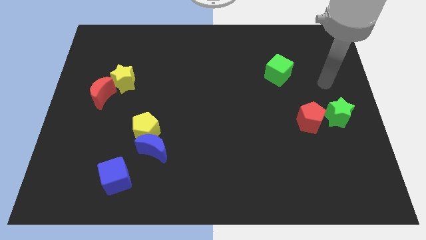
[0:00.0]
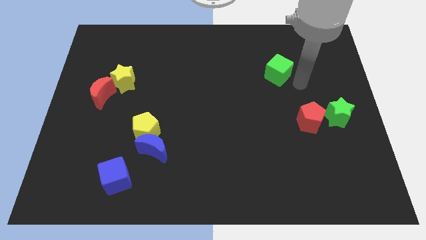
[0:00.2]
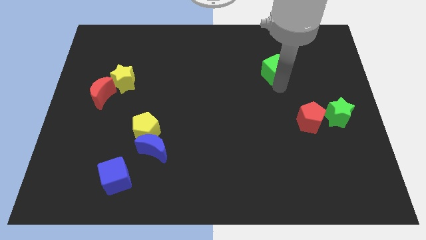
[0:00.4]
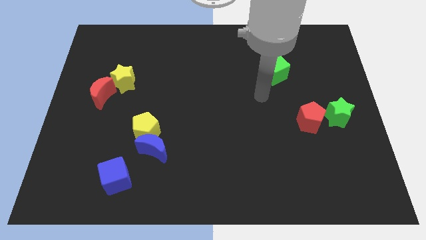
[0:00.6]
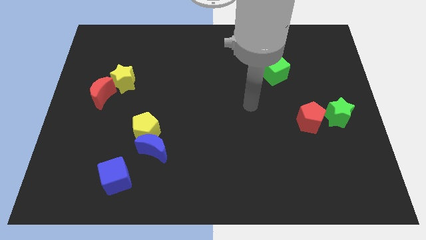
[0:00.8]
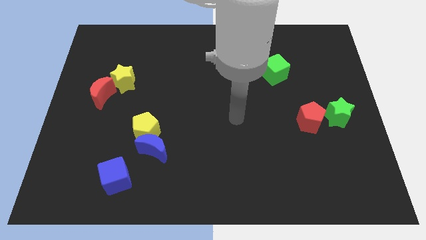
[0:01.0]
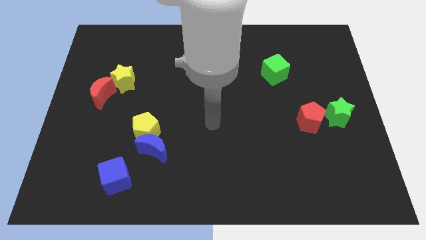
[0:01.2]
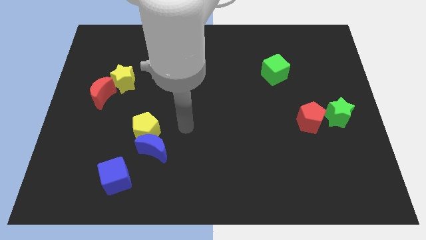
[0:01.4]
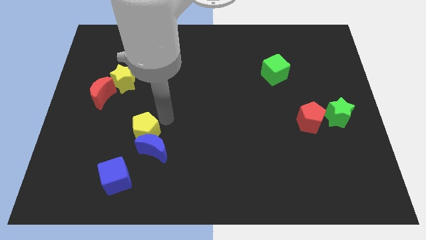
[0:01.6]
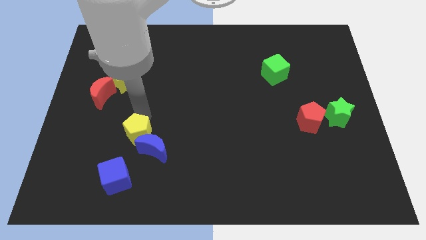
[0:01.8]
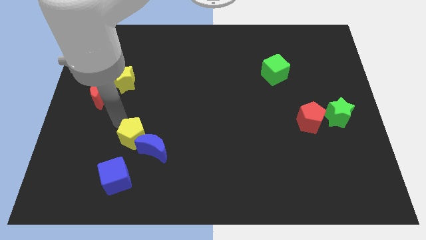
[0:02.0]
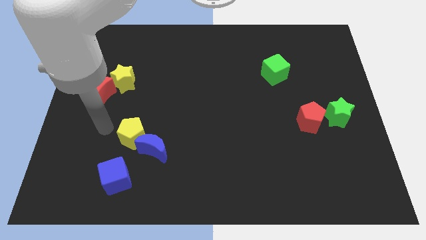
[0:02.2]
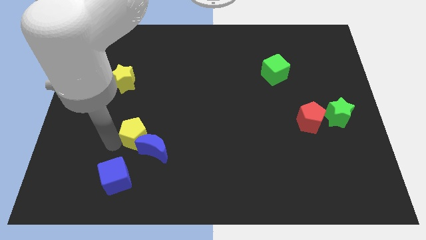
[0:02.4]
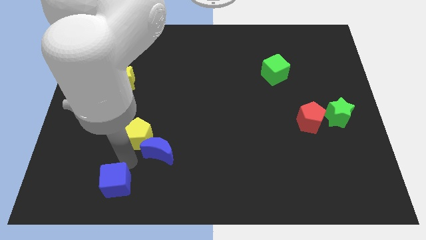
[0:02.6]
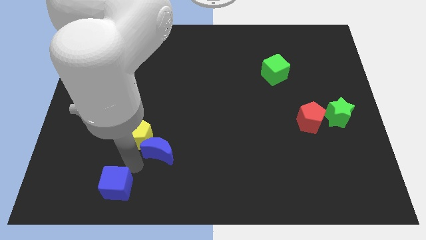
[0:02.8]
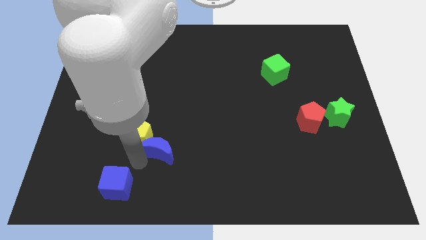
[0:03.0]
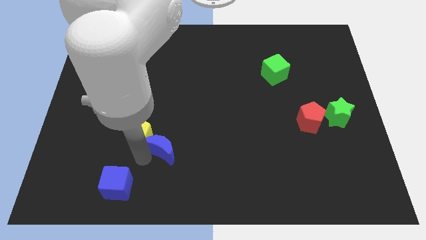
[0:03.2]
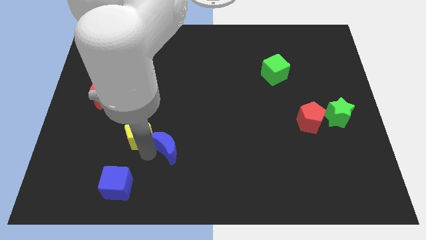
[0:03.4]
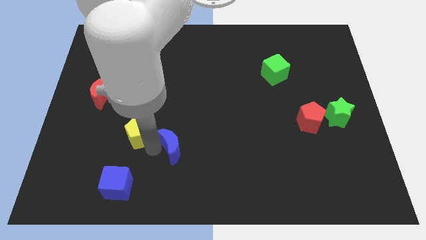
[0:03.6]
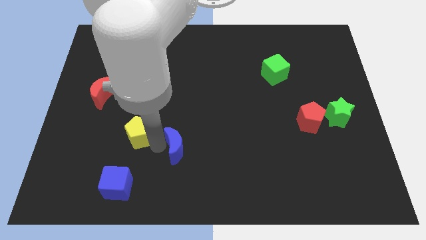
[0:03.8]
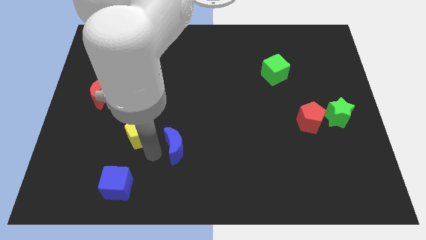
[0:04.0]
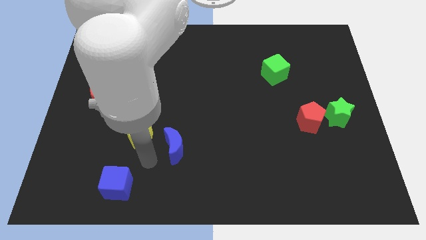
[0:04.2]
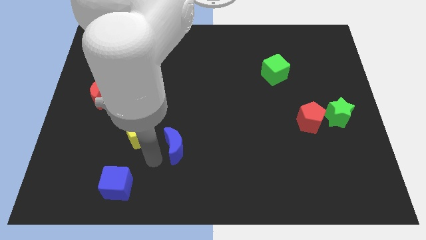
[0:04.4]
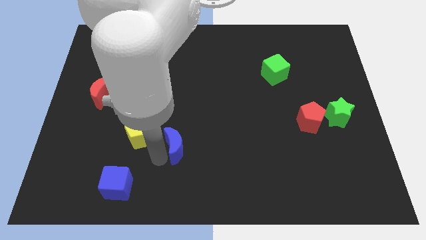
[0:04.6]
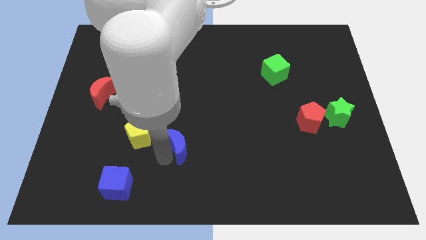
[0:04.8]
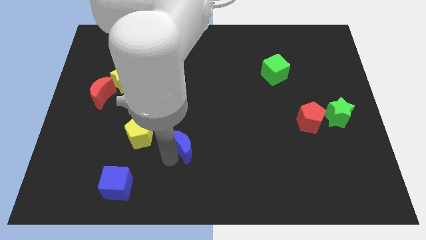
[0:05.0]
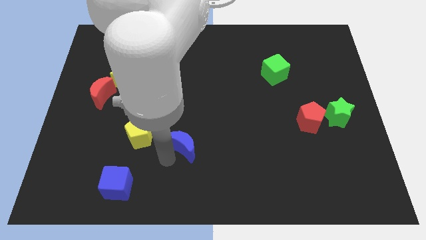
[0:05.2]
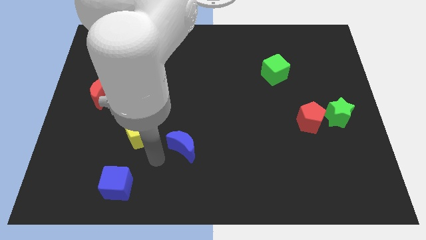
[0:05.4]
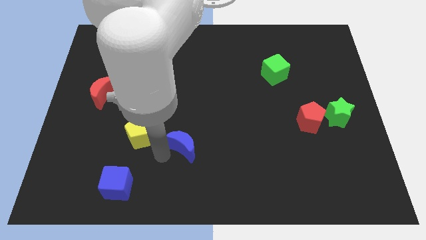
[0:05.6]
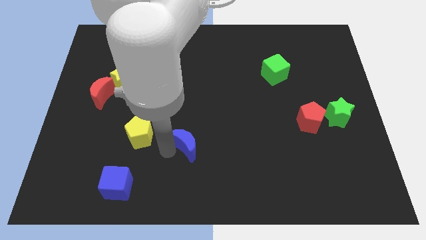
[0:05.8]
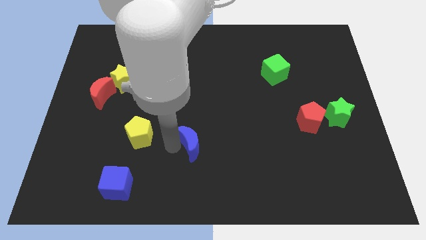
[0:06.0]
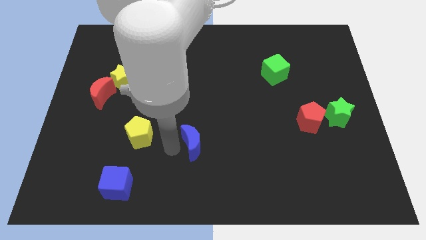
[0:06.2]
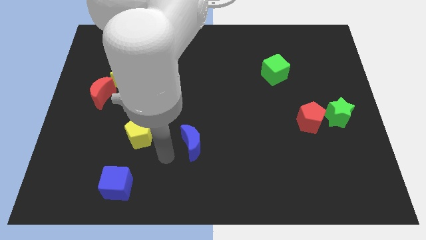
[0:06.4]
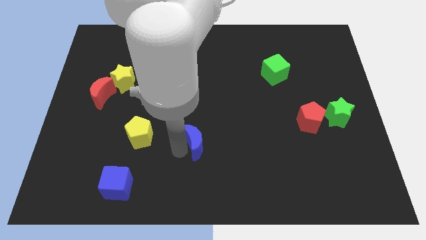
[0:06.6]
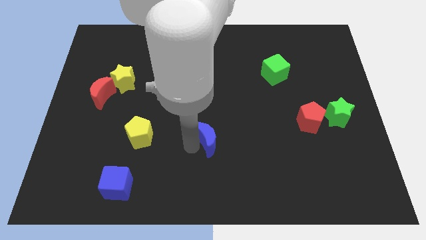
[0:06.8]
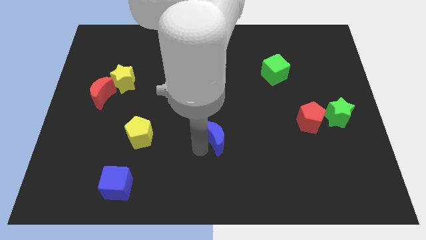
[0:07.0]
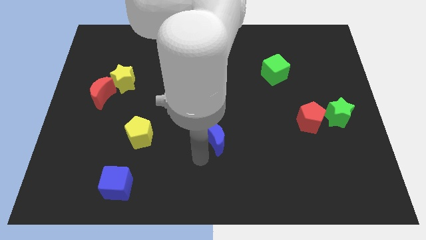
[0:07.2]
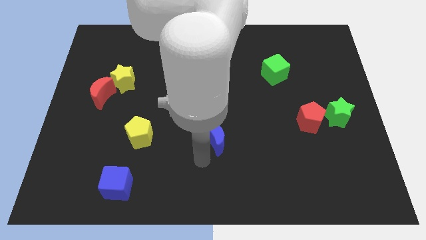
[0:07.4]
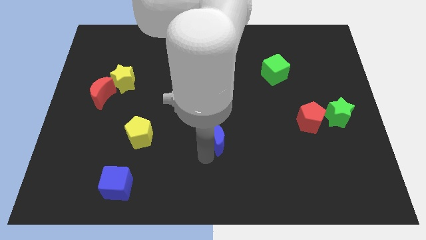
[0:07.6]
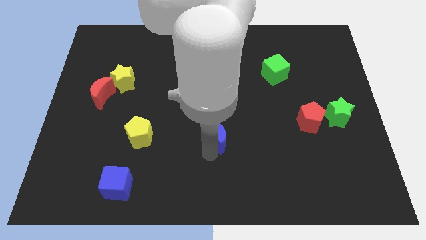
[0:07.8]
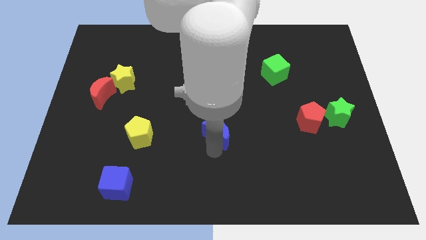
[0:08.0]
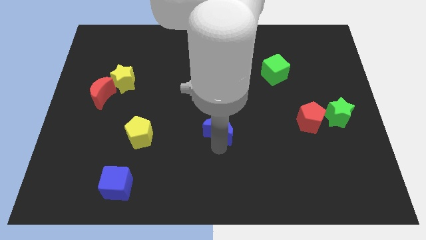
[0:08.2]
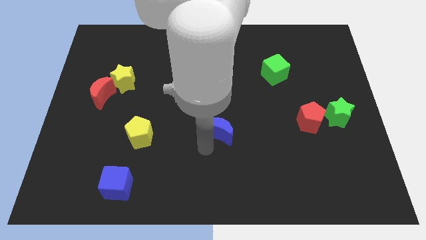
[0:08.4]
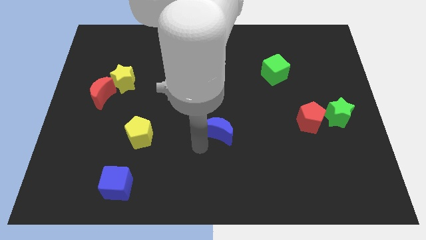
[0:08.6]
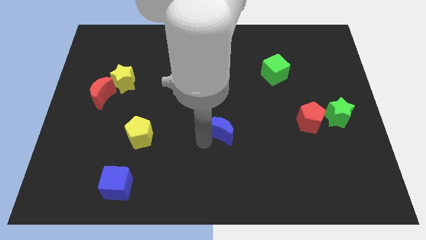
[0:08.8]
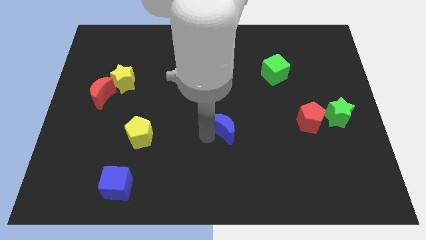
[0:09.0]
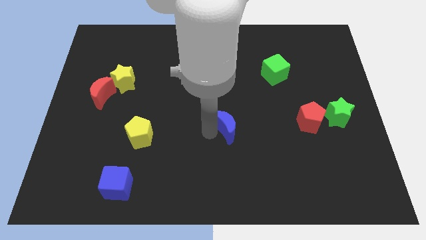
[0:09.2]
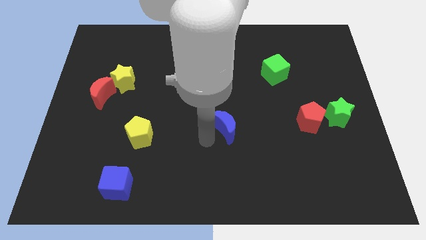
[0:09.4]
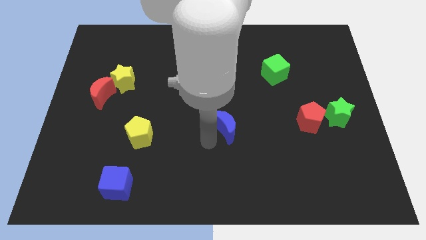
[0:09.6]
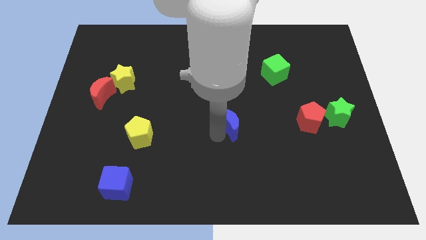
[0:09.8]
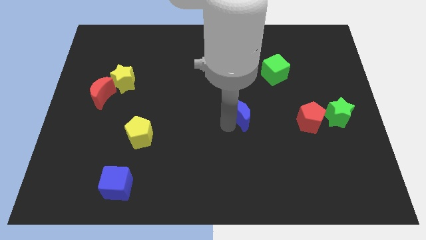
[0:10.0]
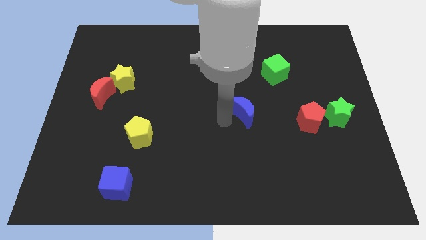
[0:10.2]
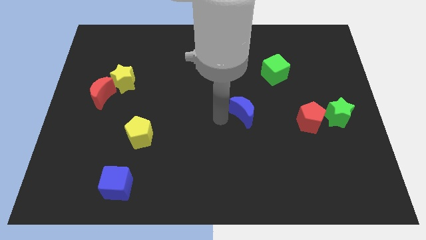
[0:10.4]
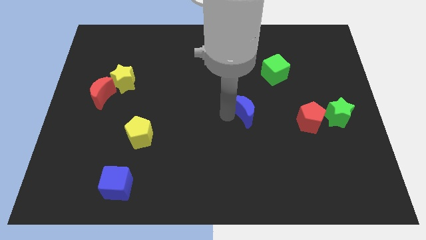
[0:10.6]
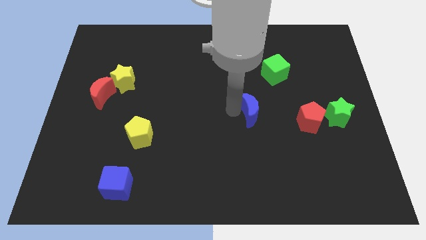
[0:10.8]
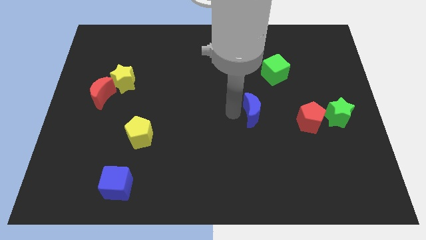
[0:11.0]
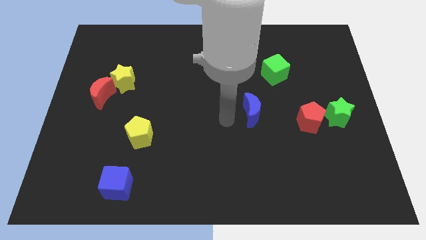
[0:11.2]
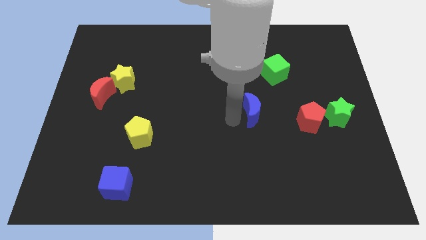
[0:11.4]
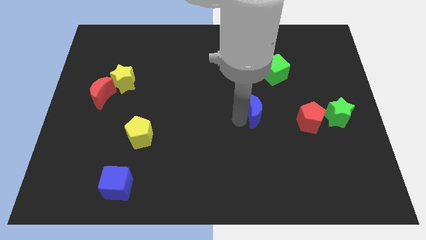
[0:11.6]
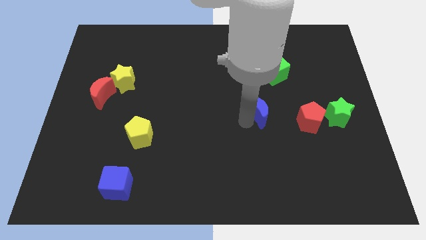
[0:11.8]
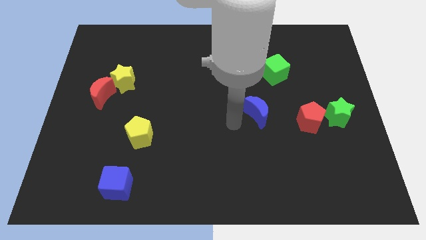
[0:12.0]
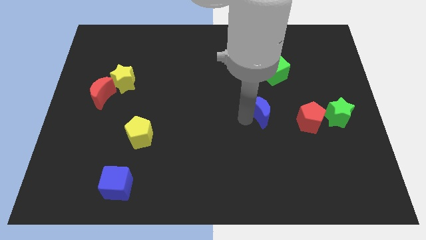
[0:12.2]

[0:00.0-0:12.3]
move the blue moon to the bottom side of the green cube

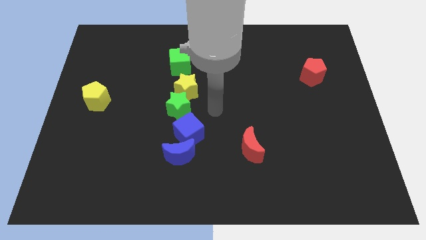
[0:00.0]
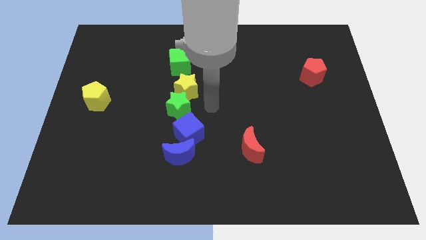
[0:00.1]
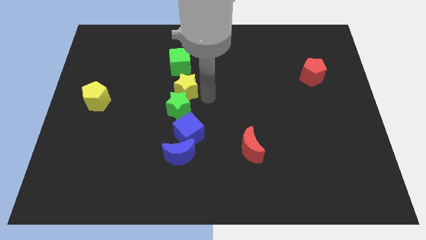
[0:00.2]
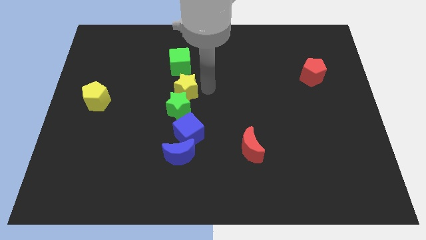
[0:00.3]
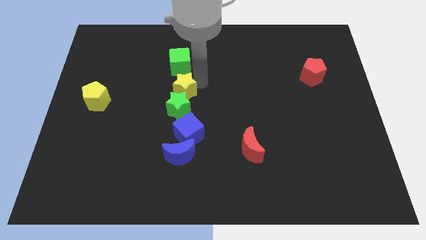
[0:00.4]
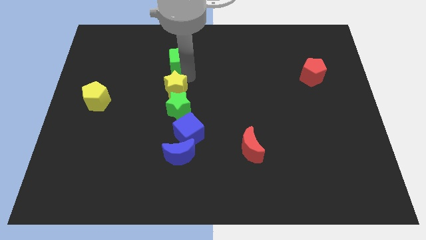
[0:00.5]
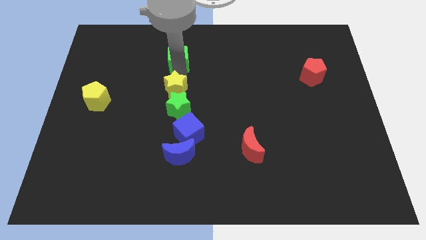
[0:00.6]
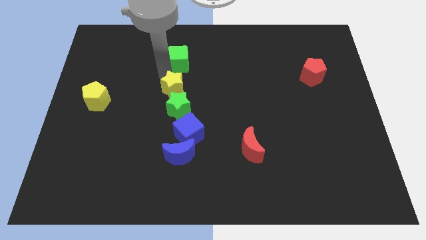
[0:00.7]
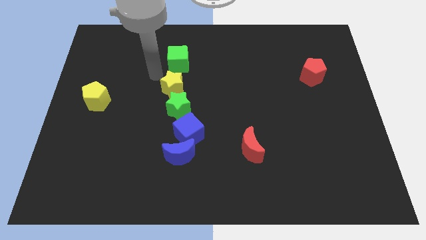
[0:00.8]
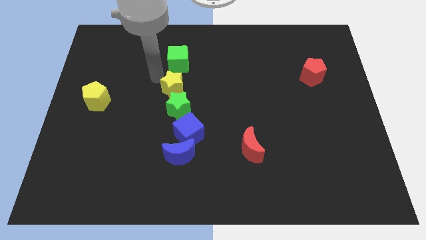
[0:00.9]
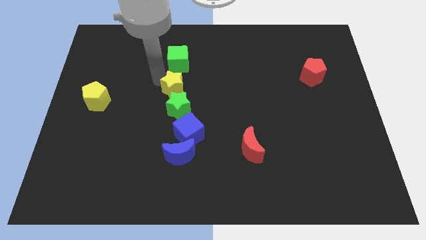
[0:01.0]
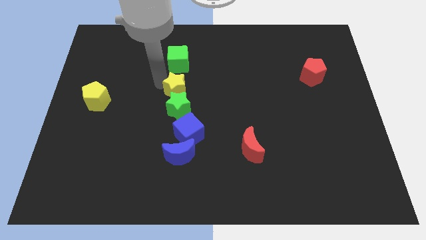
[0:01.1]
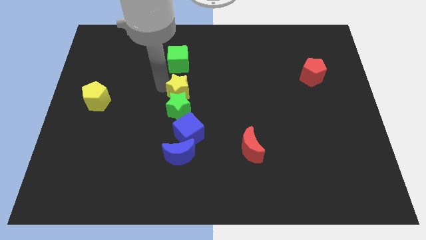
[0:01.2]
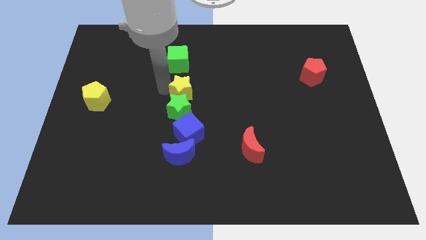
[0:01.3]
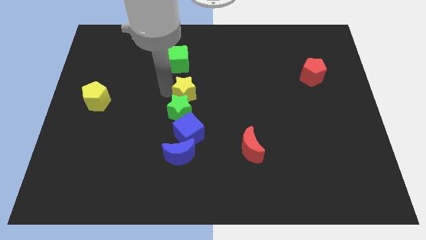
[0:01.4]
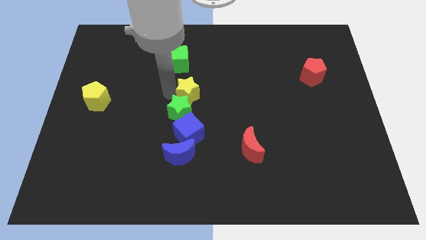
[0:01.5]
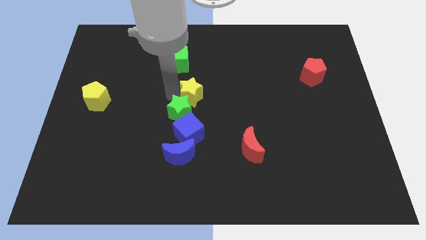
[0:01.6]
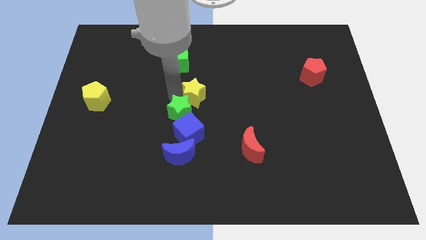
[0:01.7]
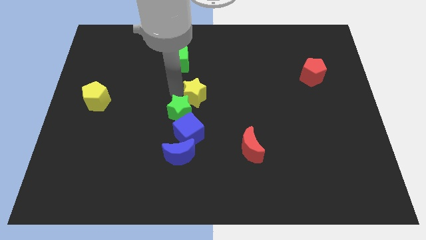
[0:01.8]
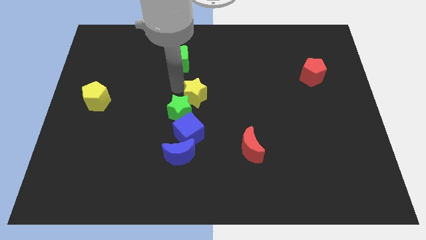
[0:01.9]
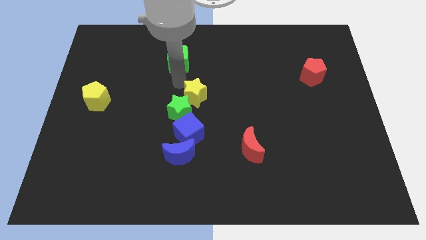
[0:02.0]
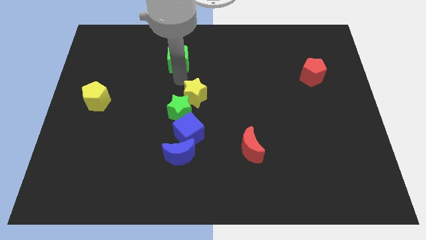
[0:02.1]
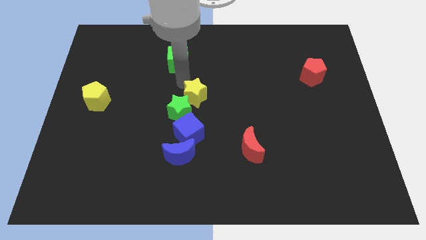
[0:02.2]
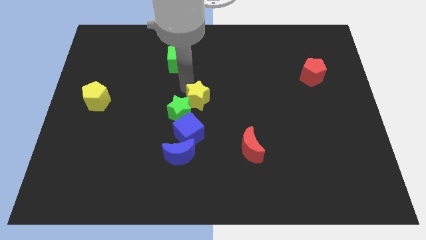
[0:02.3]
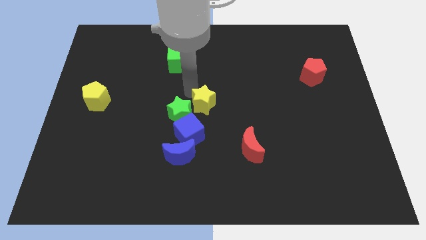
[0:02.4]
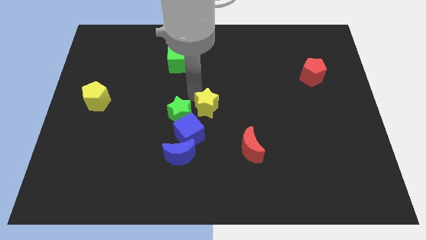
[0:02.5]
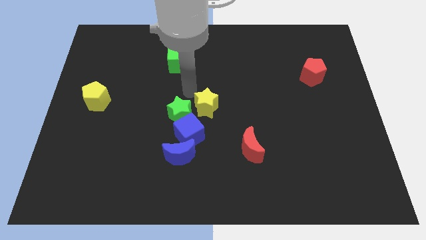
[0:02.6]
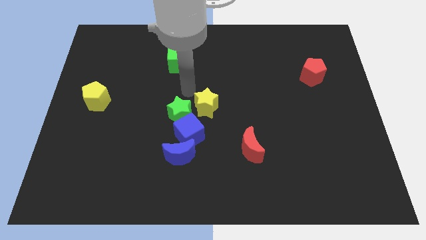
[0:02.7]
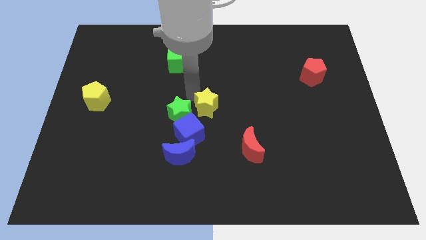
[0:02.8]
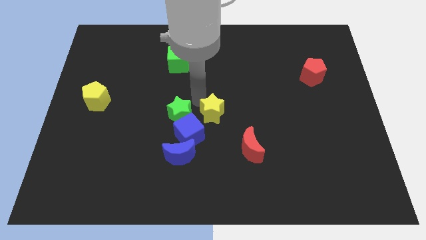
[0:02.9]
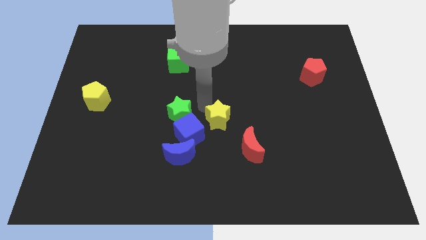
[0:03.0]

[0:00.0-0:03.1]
push the yellow star to the right side of the blue cube
